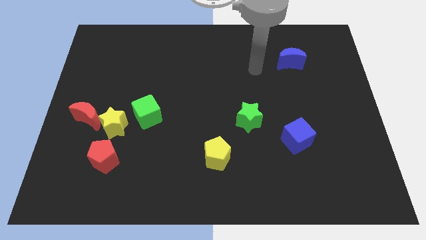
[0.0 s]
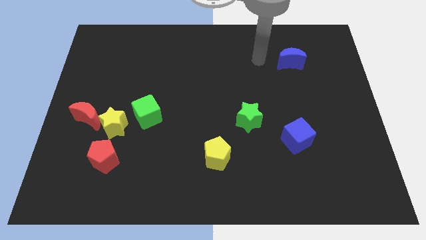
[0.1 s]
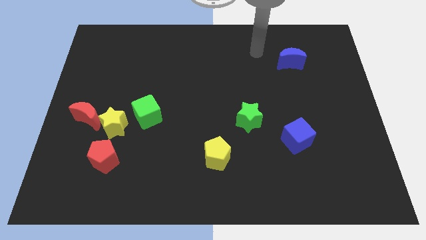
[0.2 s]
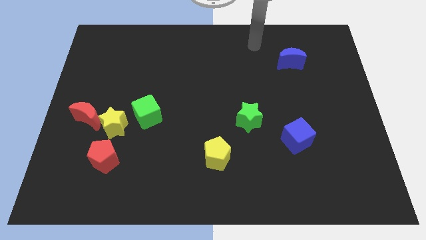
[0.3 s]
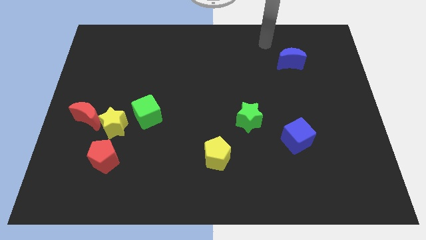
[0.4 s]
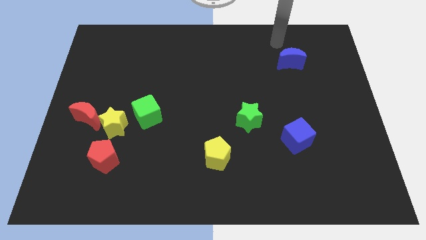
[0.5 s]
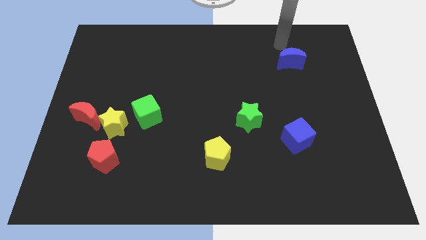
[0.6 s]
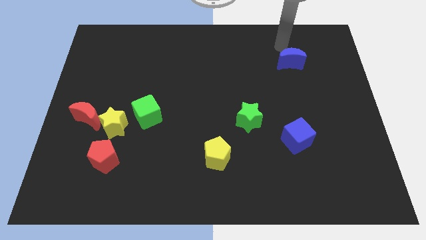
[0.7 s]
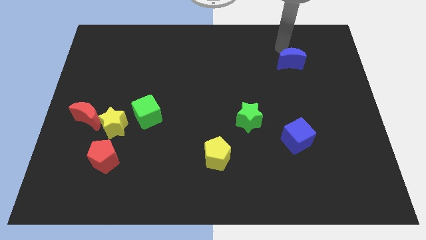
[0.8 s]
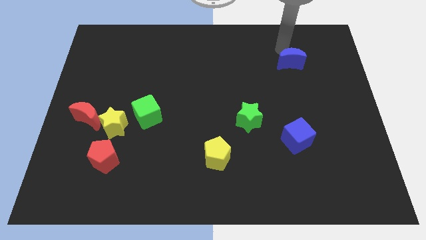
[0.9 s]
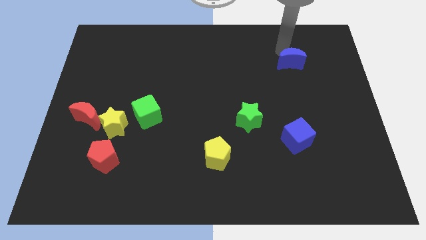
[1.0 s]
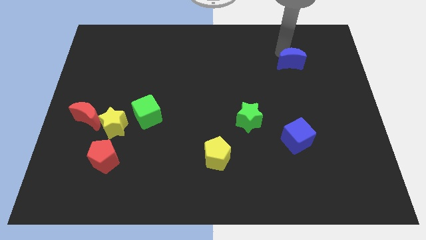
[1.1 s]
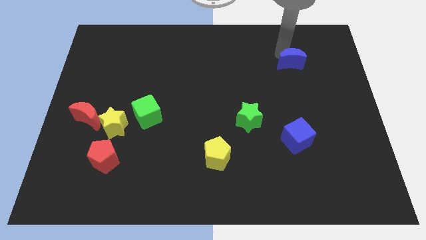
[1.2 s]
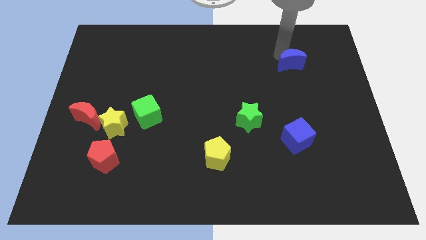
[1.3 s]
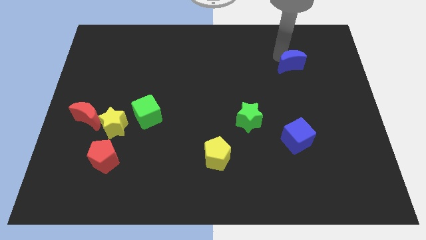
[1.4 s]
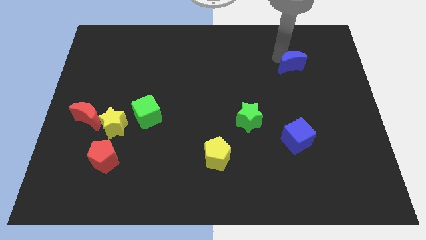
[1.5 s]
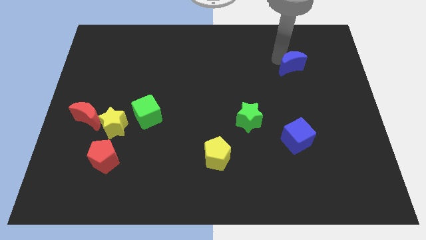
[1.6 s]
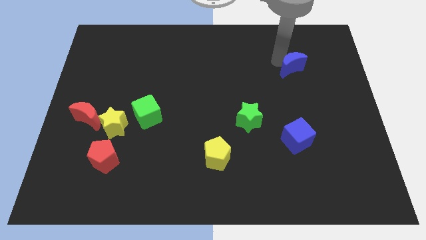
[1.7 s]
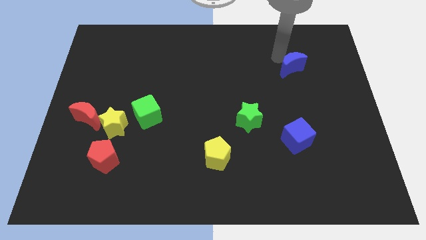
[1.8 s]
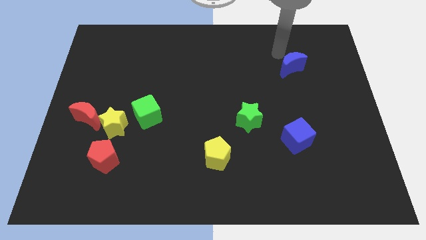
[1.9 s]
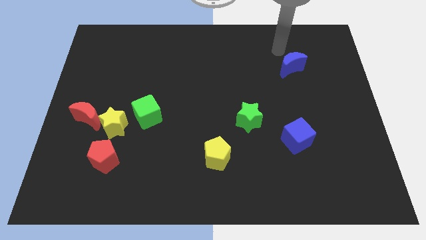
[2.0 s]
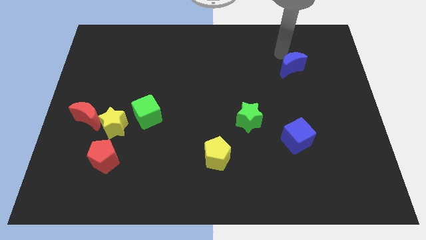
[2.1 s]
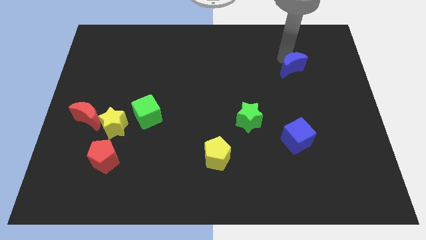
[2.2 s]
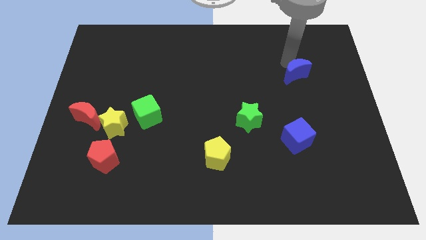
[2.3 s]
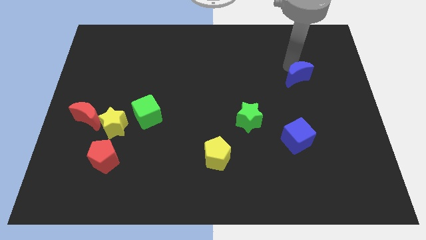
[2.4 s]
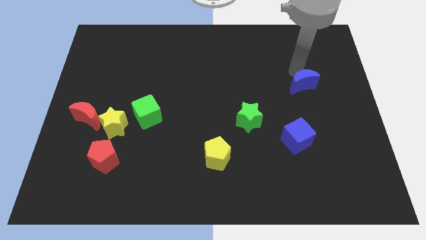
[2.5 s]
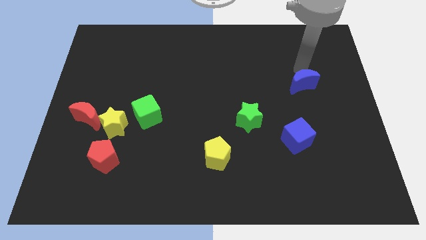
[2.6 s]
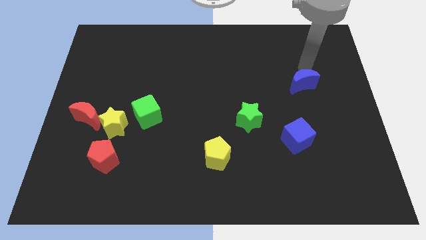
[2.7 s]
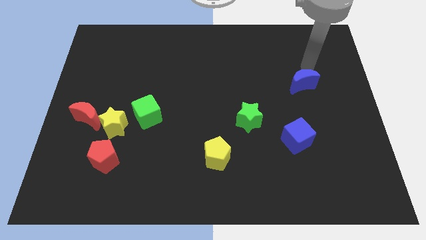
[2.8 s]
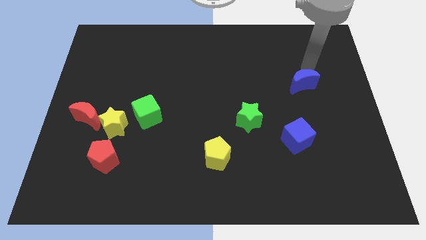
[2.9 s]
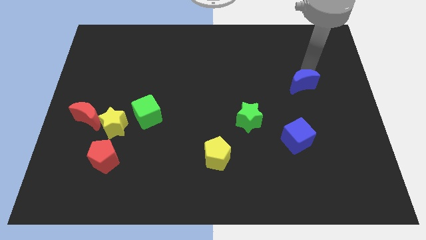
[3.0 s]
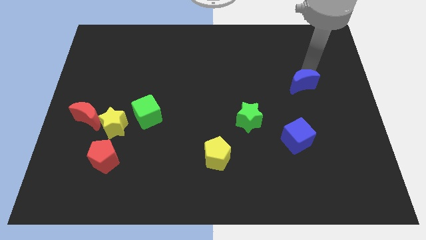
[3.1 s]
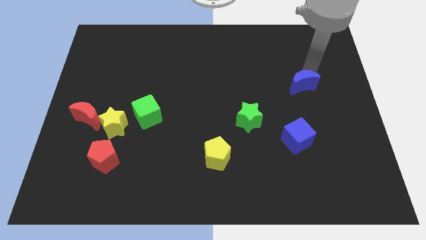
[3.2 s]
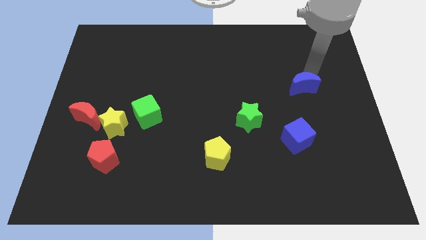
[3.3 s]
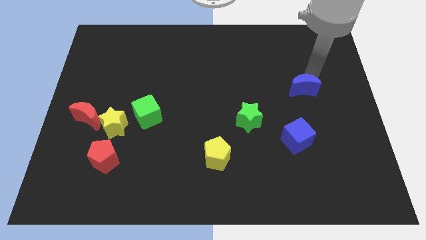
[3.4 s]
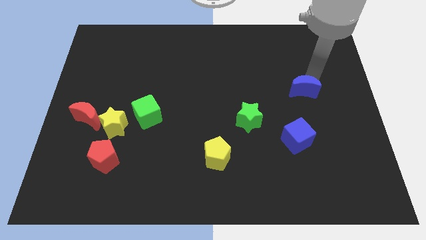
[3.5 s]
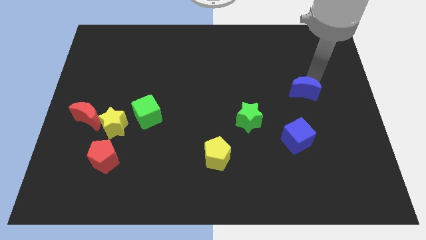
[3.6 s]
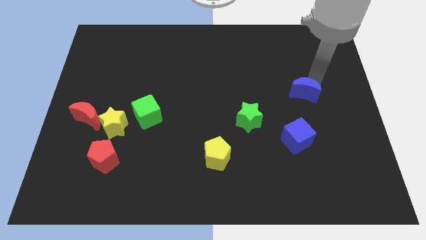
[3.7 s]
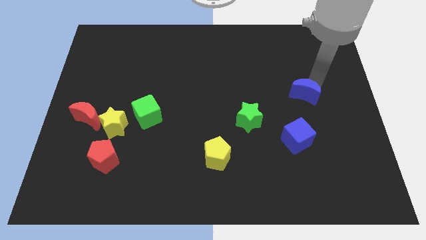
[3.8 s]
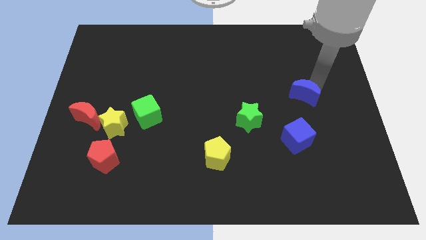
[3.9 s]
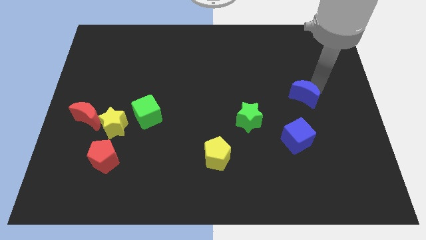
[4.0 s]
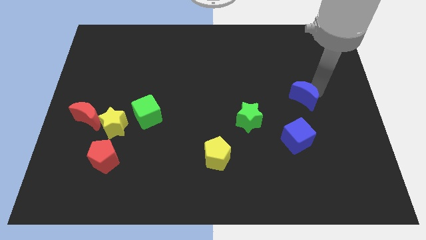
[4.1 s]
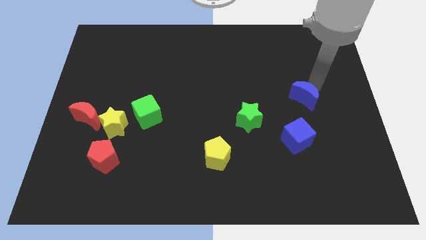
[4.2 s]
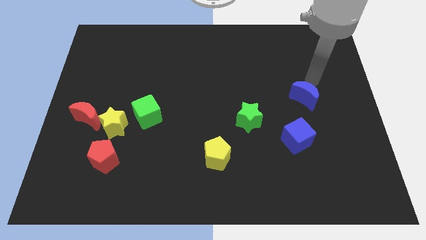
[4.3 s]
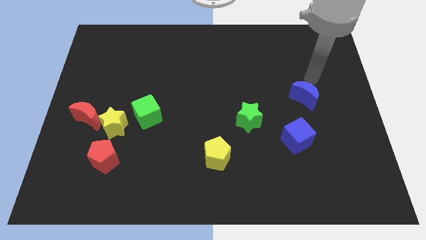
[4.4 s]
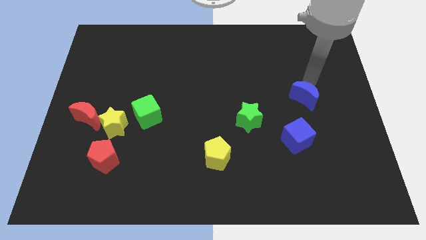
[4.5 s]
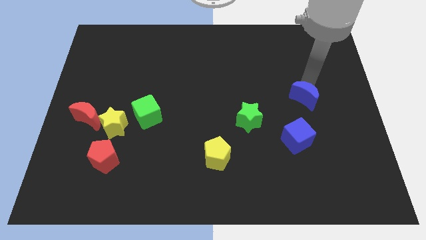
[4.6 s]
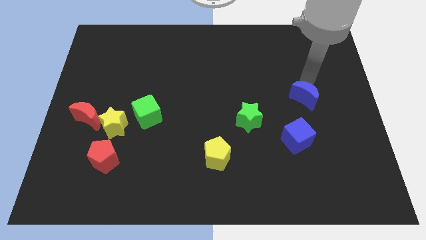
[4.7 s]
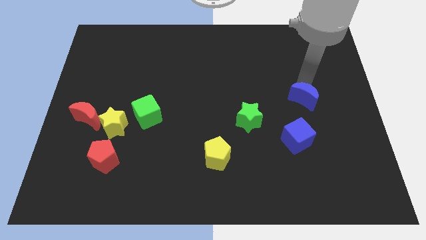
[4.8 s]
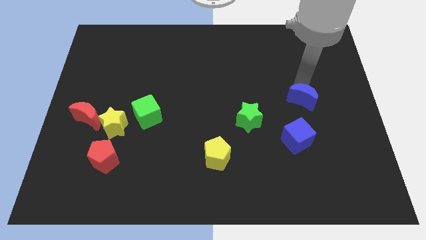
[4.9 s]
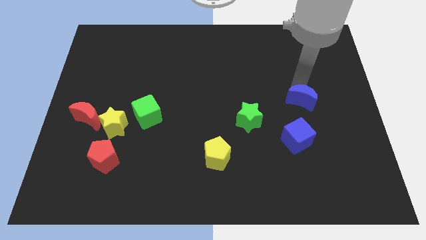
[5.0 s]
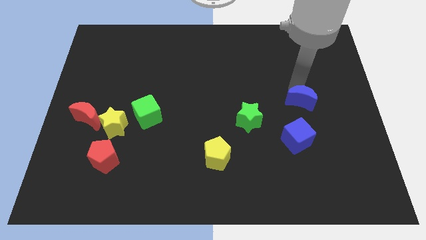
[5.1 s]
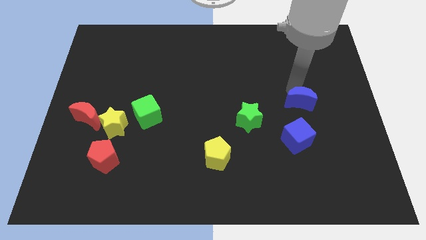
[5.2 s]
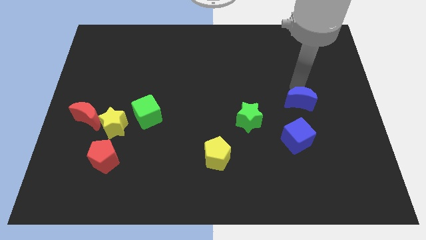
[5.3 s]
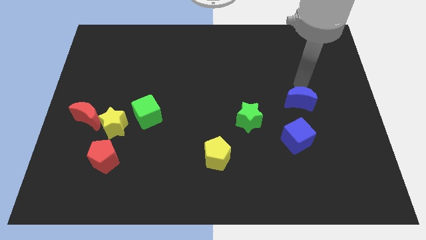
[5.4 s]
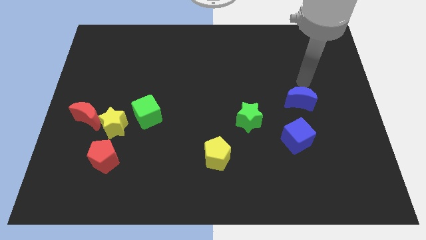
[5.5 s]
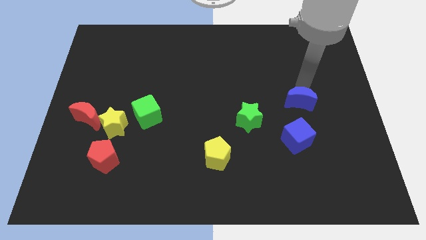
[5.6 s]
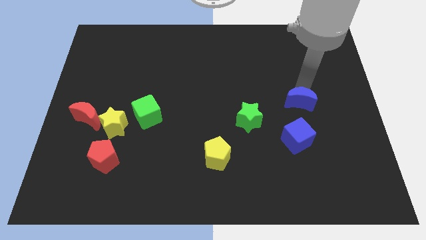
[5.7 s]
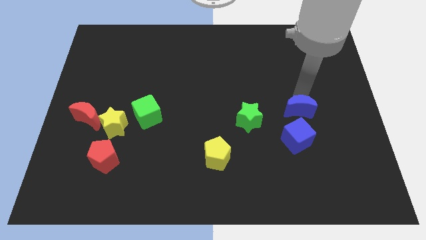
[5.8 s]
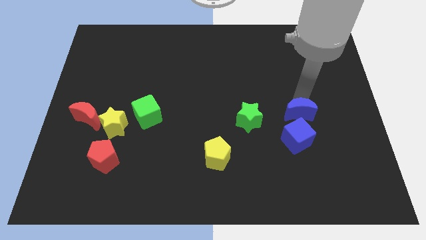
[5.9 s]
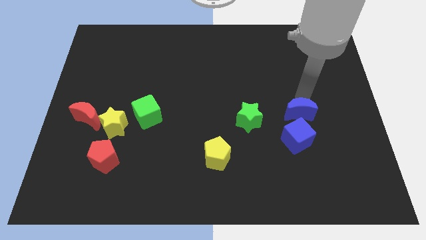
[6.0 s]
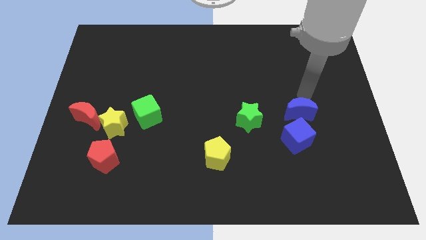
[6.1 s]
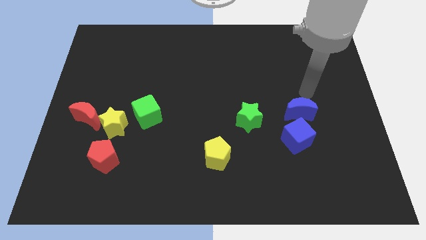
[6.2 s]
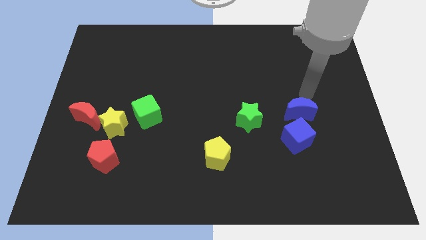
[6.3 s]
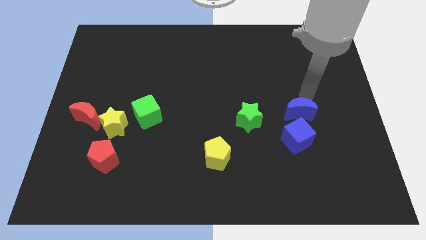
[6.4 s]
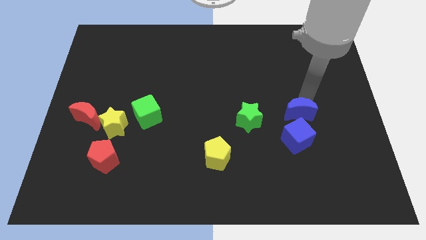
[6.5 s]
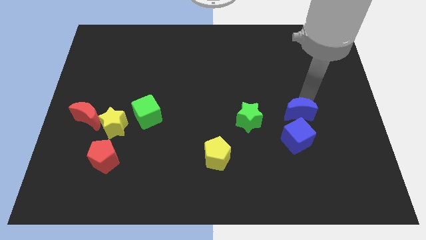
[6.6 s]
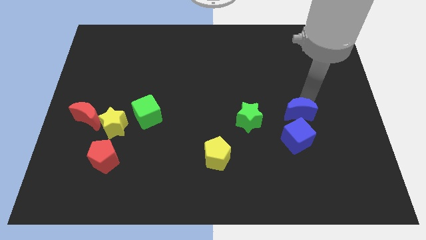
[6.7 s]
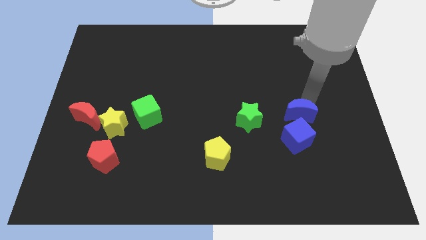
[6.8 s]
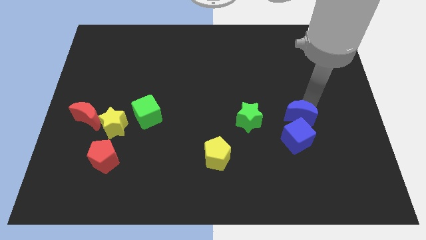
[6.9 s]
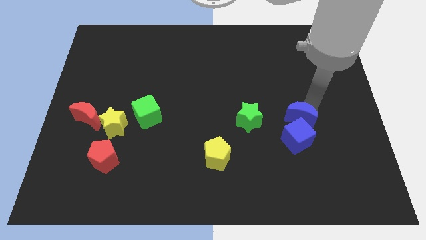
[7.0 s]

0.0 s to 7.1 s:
put the blue moon towards the blue cube
